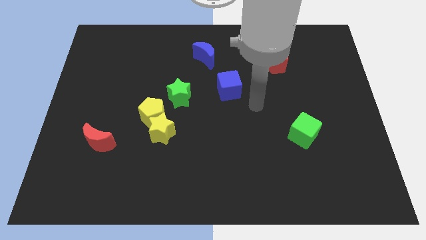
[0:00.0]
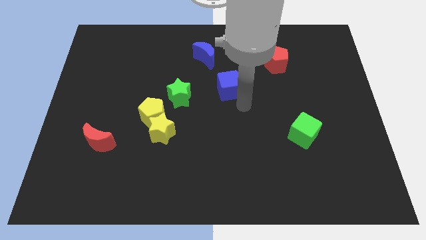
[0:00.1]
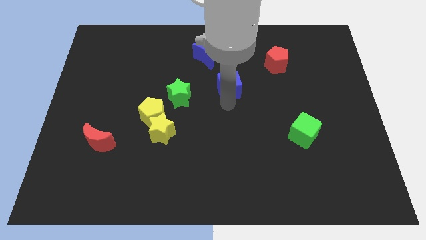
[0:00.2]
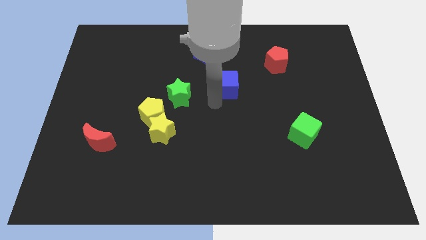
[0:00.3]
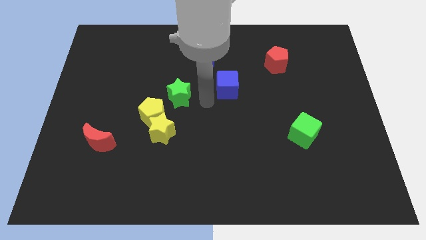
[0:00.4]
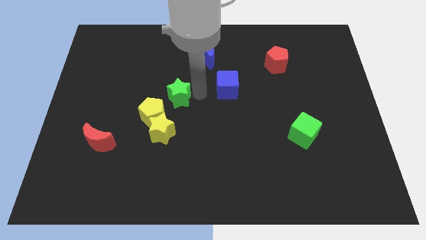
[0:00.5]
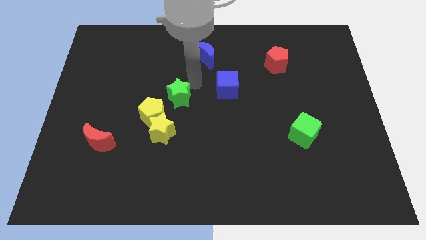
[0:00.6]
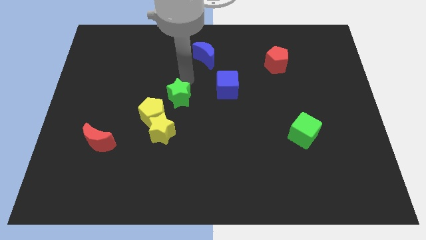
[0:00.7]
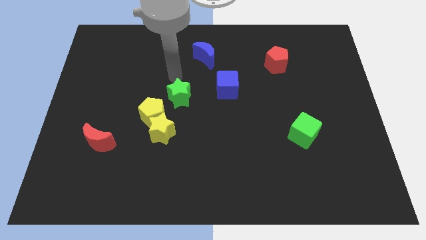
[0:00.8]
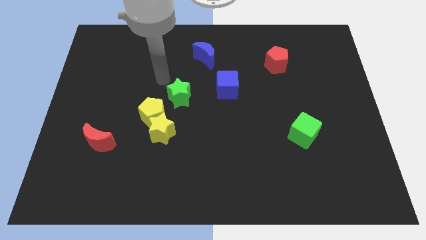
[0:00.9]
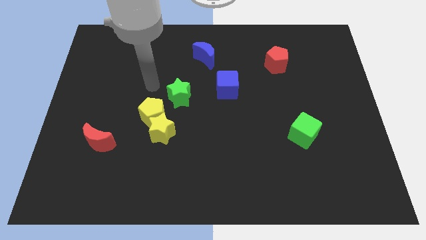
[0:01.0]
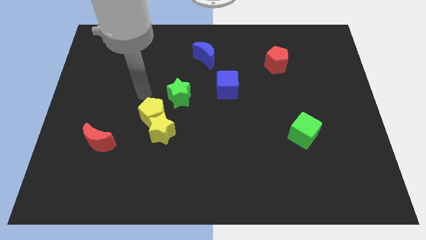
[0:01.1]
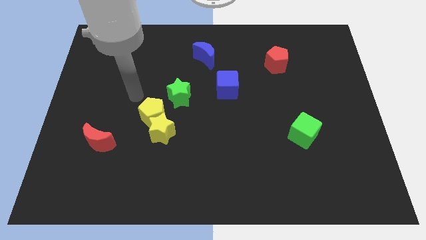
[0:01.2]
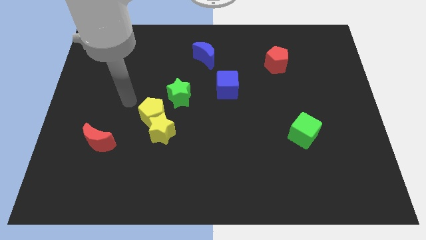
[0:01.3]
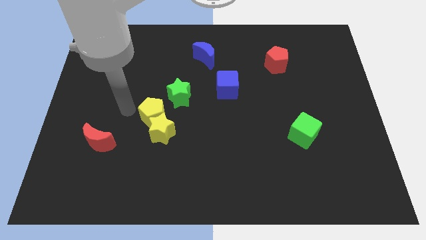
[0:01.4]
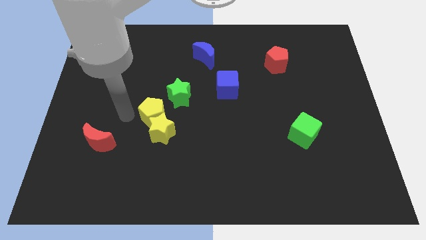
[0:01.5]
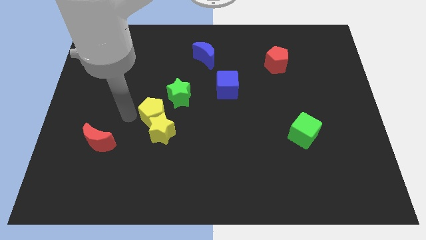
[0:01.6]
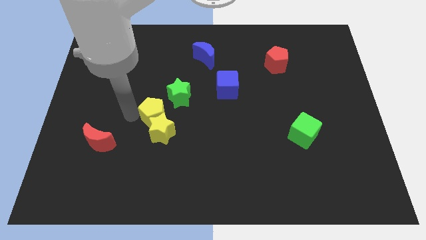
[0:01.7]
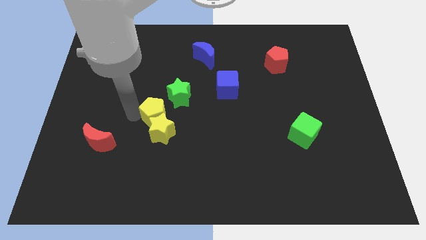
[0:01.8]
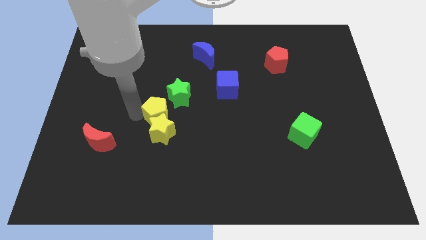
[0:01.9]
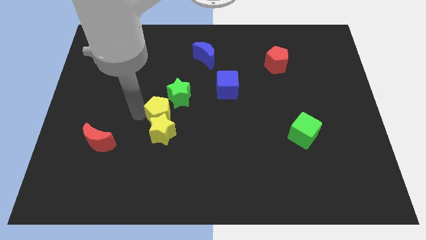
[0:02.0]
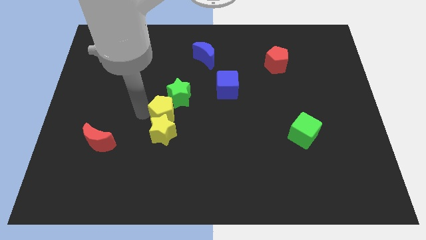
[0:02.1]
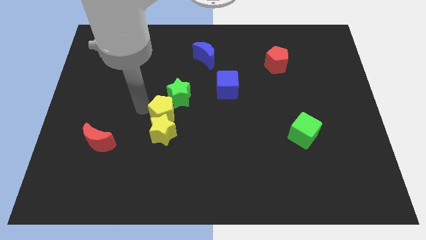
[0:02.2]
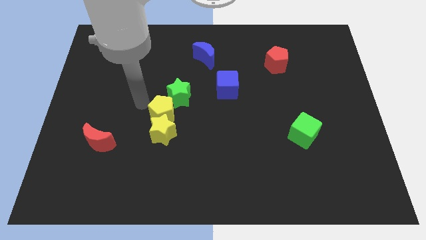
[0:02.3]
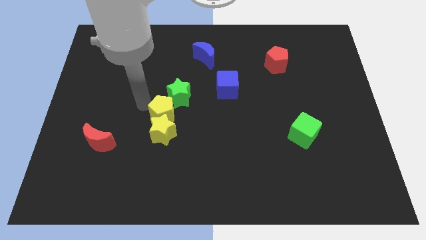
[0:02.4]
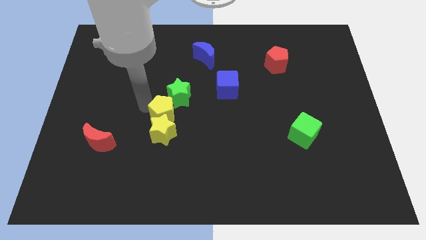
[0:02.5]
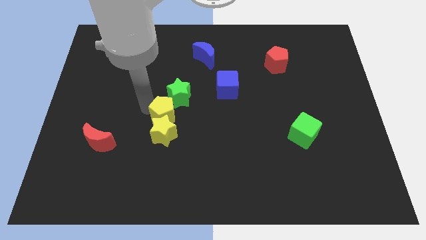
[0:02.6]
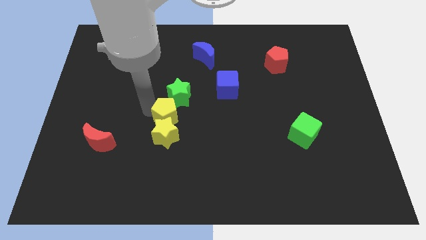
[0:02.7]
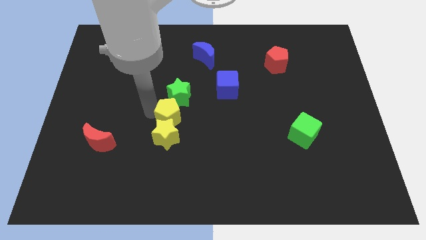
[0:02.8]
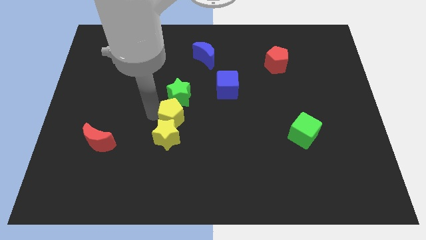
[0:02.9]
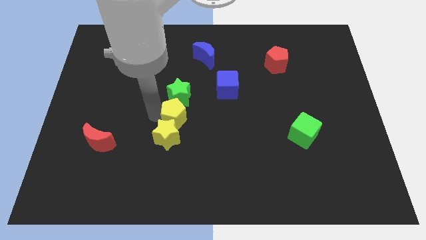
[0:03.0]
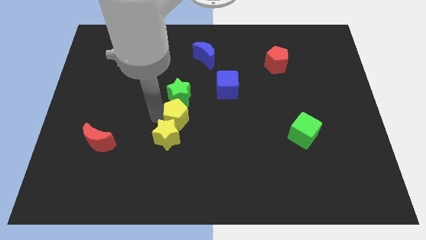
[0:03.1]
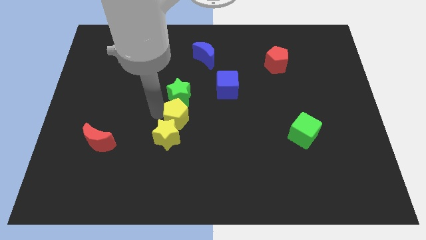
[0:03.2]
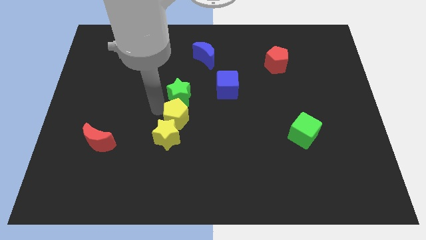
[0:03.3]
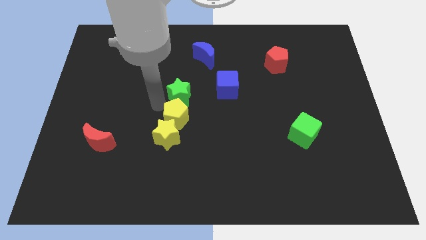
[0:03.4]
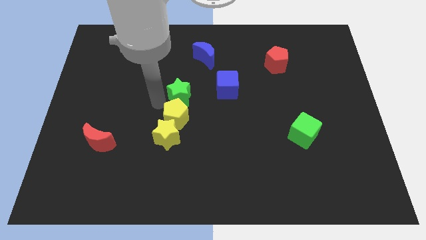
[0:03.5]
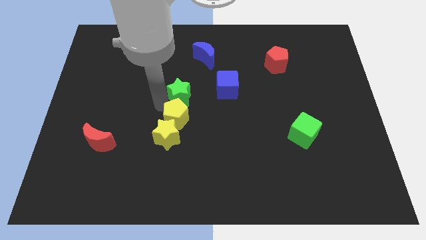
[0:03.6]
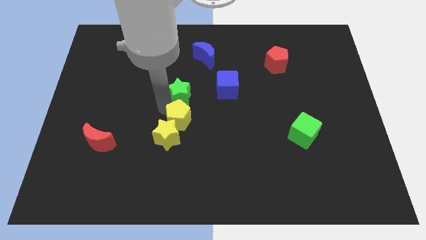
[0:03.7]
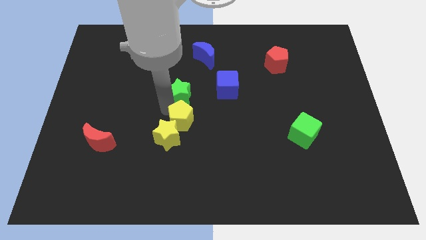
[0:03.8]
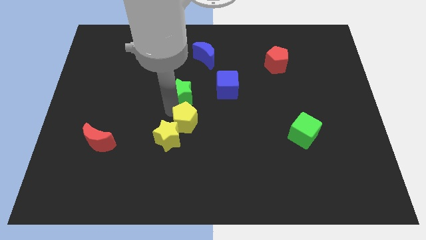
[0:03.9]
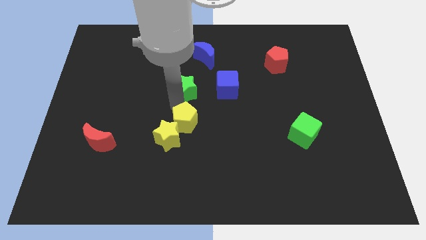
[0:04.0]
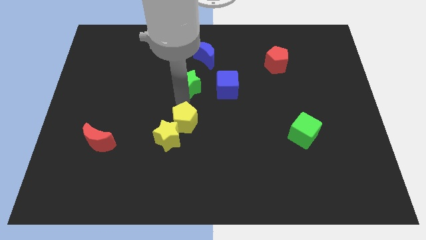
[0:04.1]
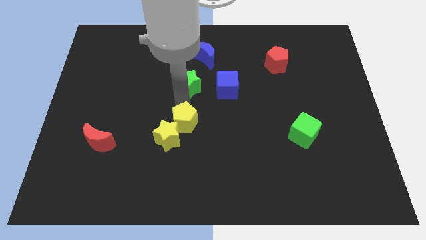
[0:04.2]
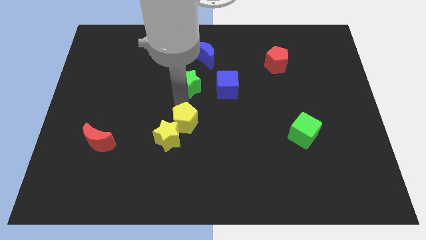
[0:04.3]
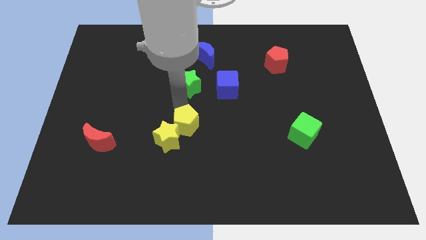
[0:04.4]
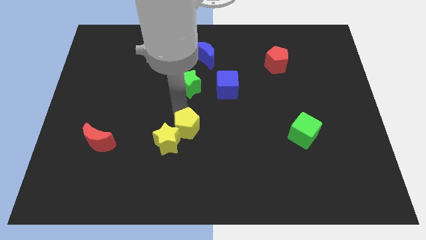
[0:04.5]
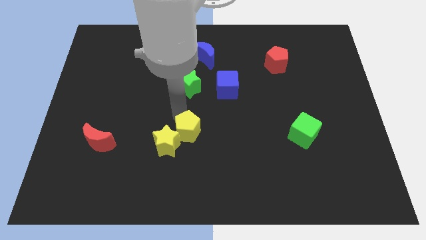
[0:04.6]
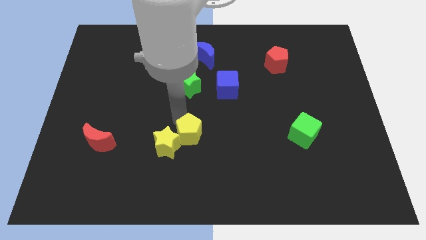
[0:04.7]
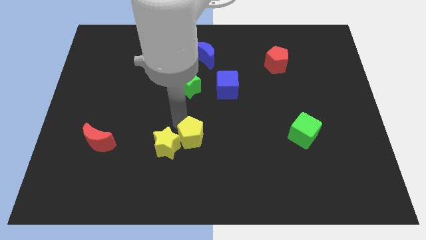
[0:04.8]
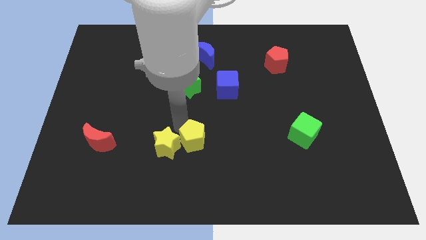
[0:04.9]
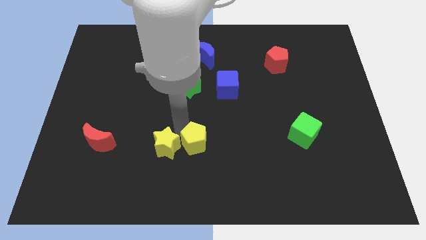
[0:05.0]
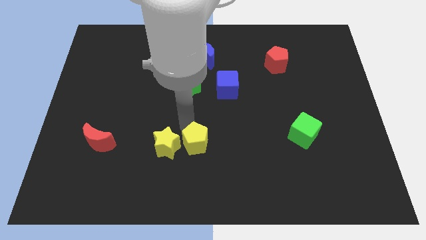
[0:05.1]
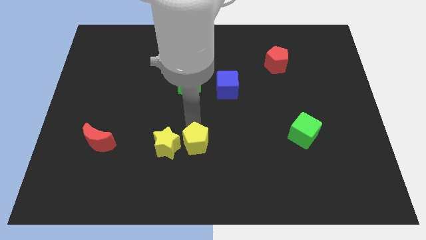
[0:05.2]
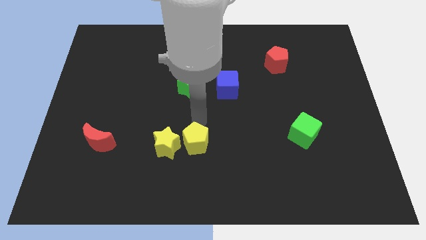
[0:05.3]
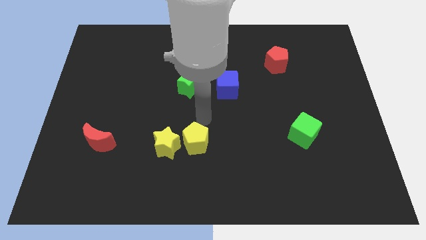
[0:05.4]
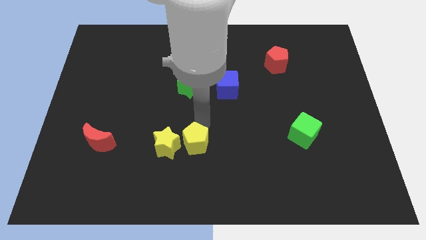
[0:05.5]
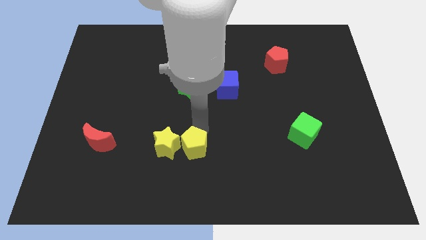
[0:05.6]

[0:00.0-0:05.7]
put the yellow pentagon diagonally down and to the right of the yellow star

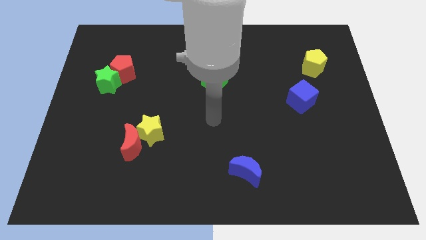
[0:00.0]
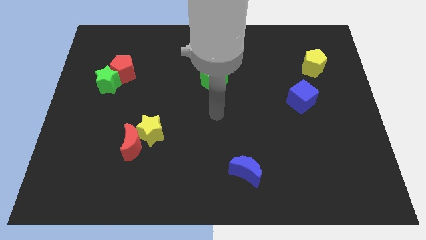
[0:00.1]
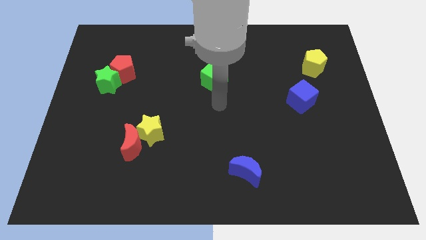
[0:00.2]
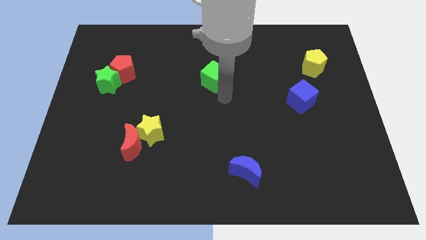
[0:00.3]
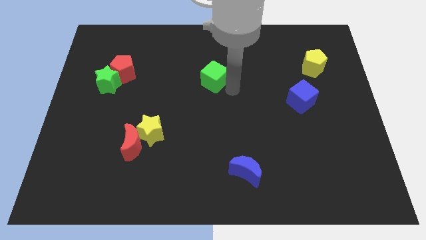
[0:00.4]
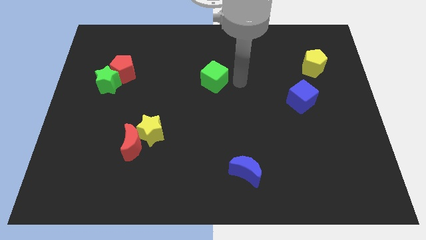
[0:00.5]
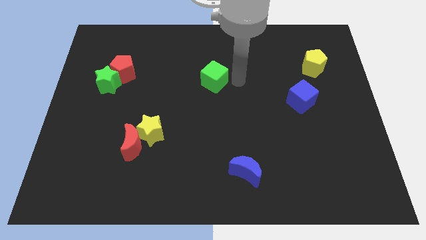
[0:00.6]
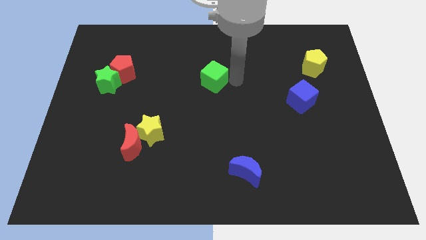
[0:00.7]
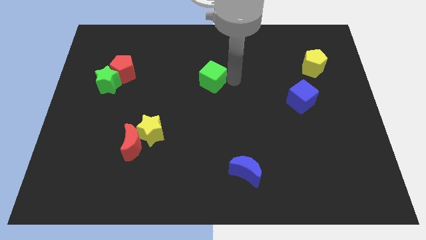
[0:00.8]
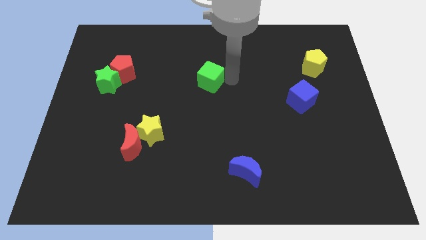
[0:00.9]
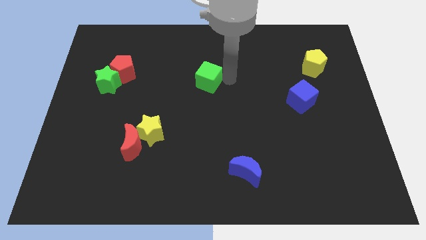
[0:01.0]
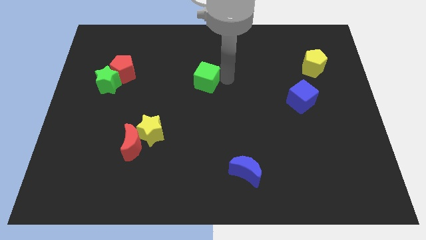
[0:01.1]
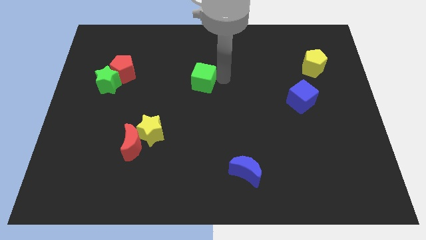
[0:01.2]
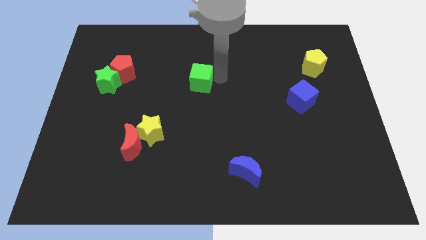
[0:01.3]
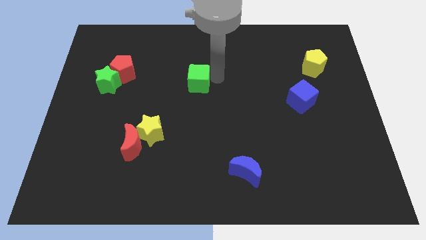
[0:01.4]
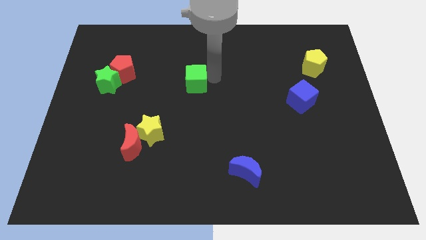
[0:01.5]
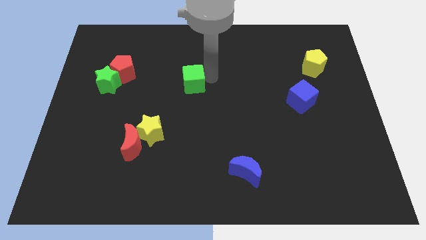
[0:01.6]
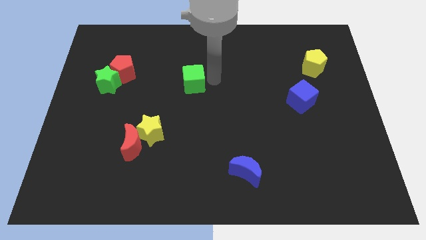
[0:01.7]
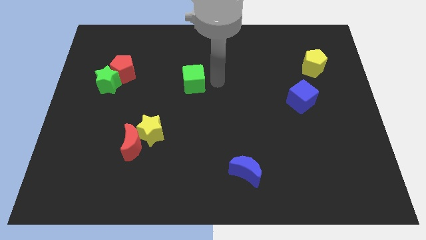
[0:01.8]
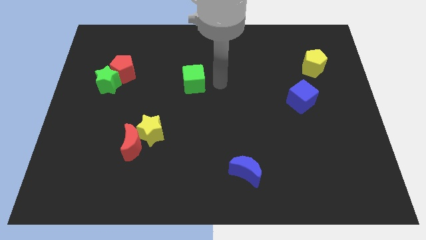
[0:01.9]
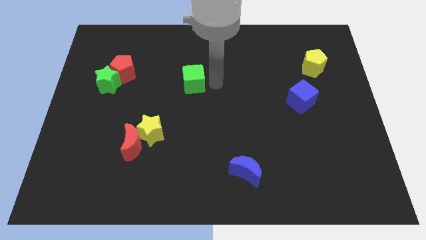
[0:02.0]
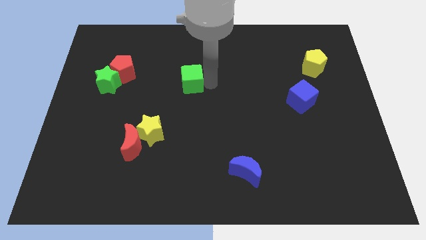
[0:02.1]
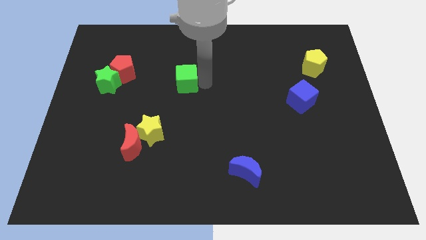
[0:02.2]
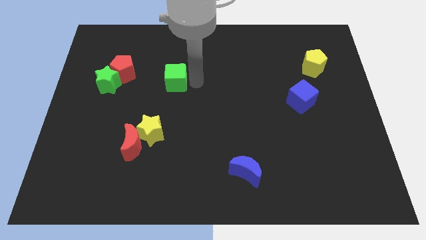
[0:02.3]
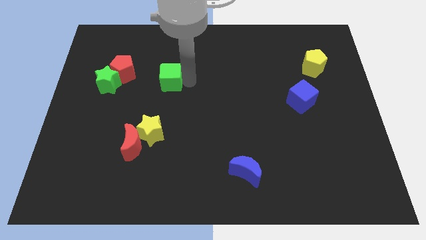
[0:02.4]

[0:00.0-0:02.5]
move the green cube to the right of the green star
